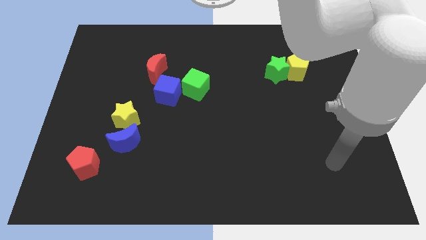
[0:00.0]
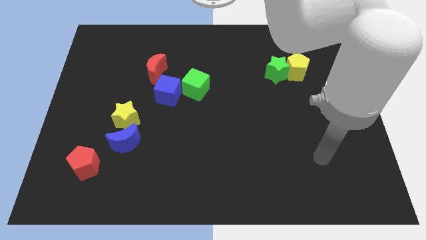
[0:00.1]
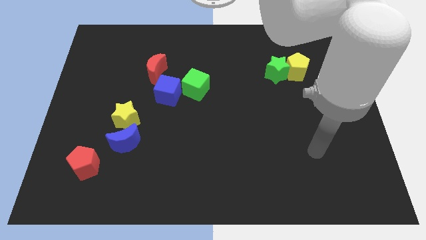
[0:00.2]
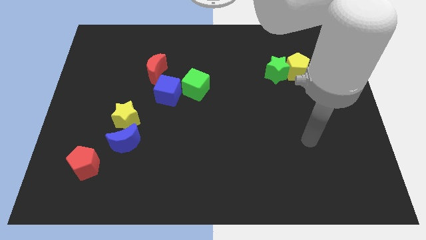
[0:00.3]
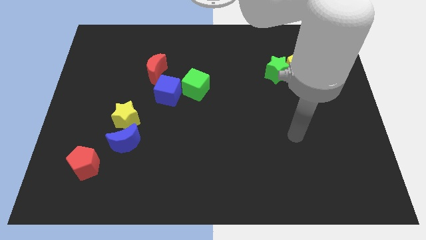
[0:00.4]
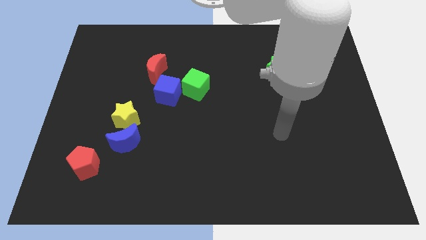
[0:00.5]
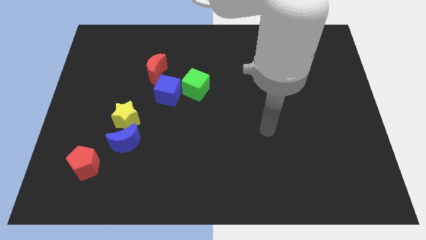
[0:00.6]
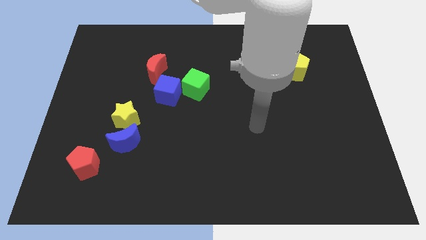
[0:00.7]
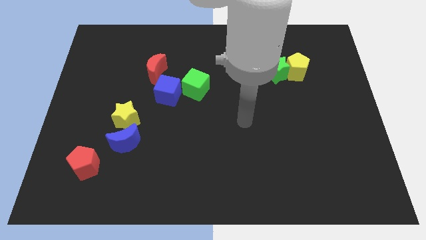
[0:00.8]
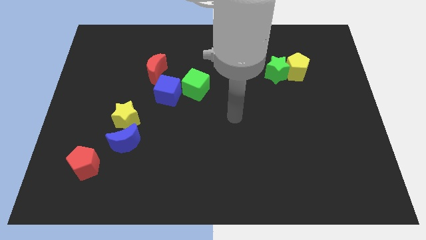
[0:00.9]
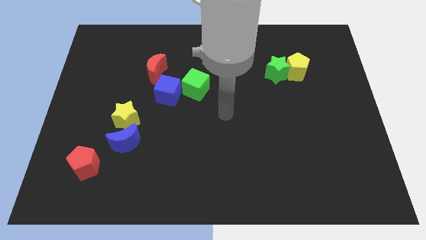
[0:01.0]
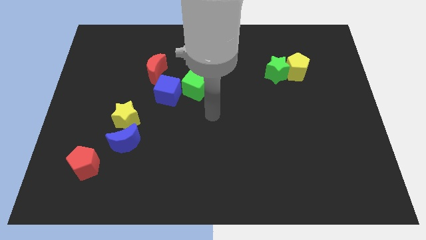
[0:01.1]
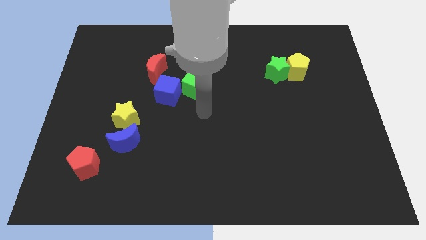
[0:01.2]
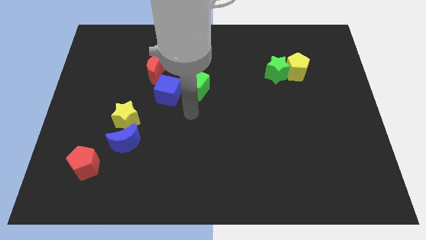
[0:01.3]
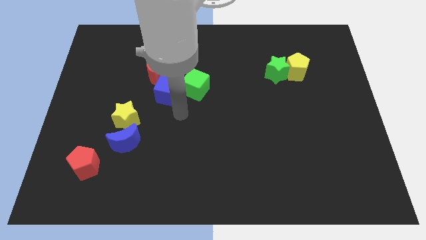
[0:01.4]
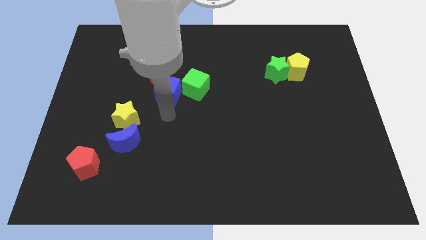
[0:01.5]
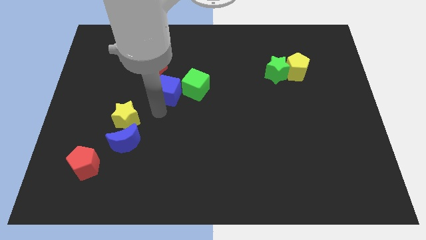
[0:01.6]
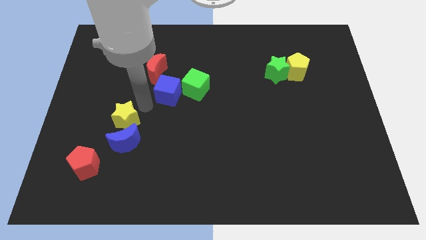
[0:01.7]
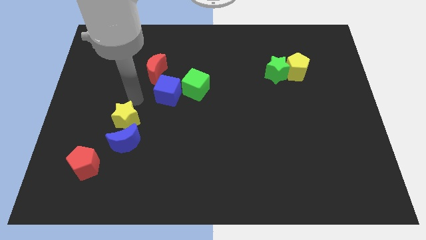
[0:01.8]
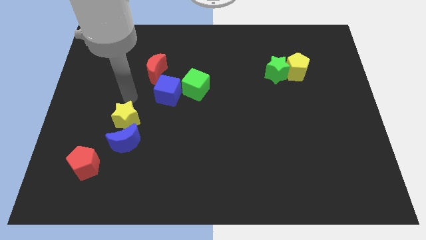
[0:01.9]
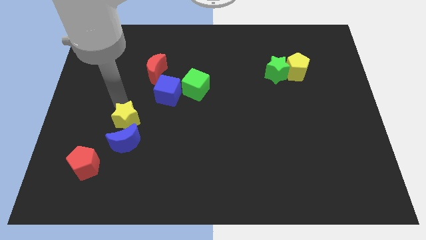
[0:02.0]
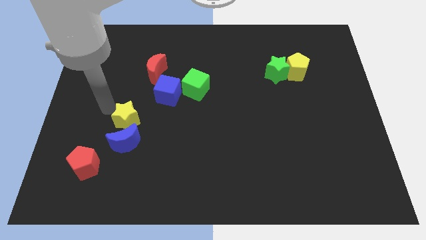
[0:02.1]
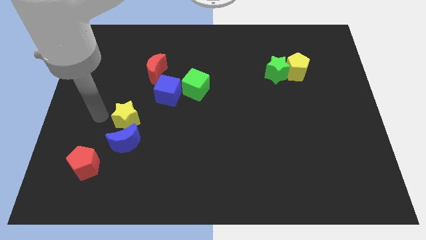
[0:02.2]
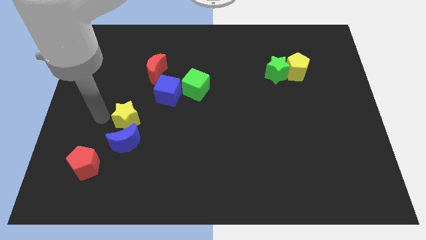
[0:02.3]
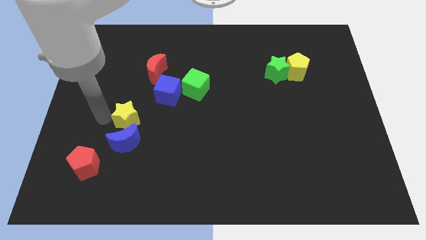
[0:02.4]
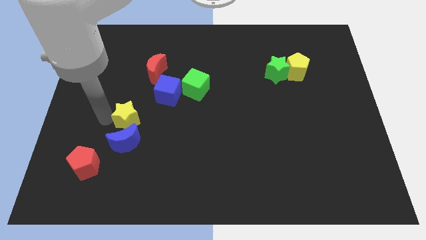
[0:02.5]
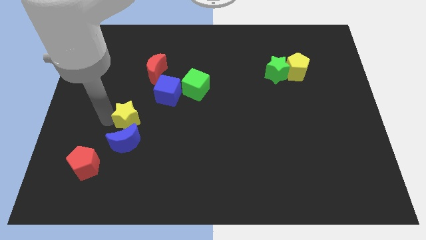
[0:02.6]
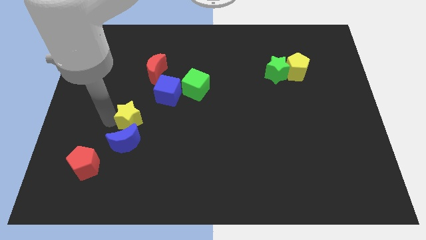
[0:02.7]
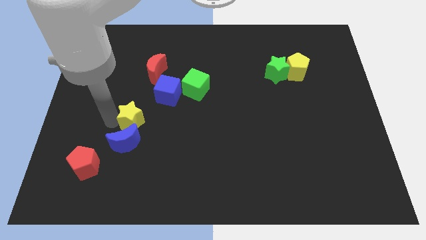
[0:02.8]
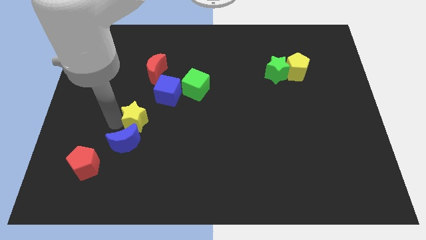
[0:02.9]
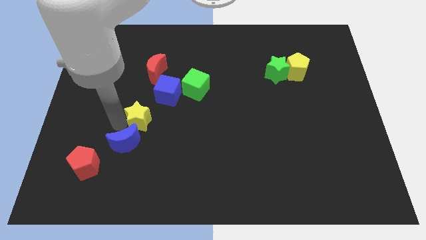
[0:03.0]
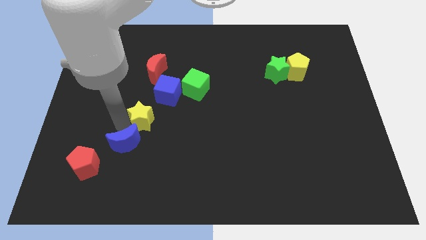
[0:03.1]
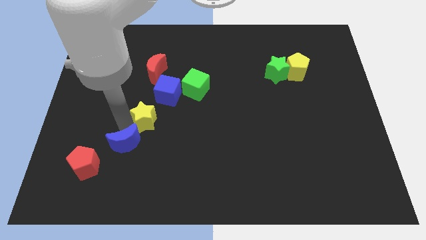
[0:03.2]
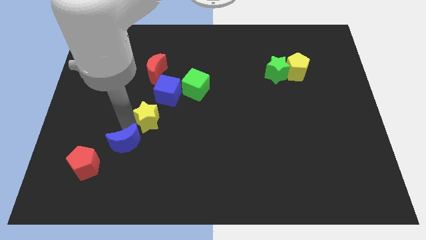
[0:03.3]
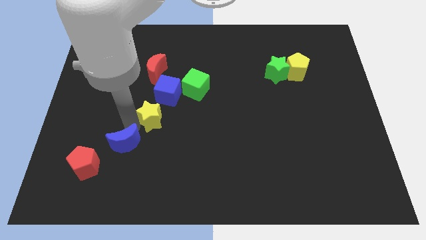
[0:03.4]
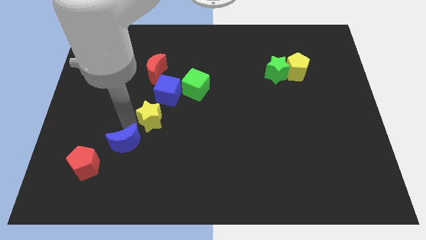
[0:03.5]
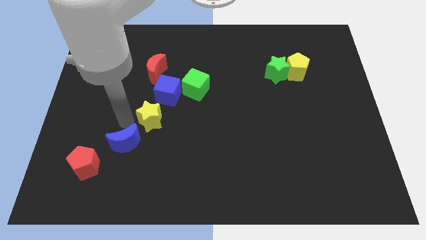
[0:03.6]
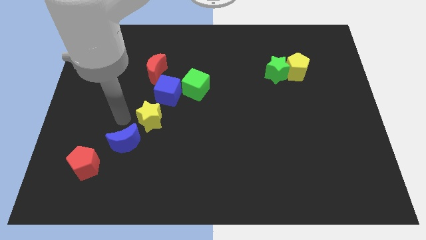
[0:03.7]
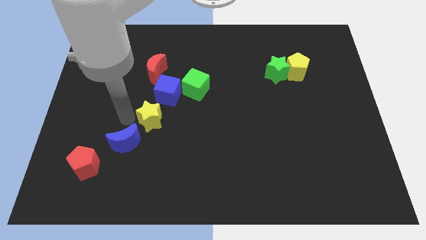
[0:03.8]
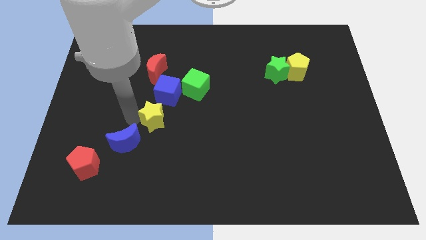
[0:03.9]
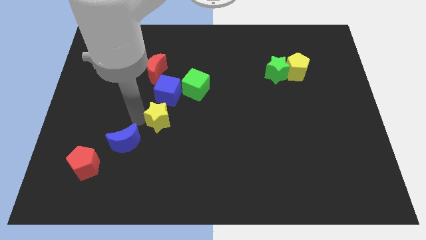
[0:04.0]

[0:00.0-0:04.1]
push the yellow star a bit to the right

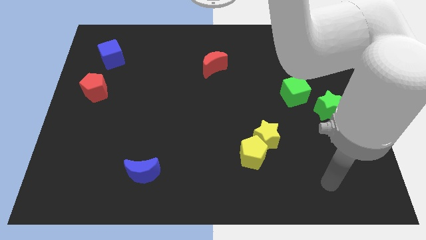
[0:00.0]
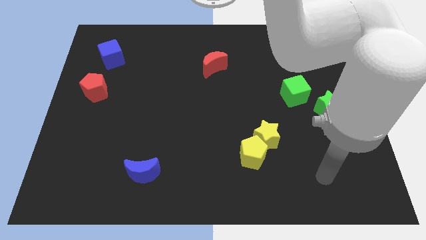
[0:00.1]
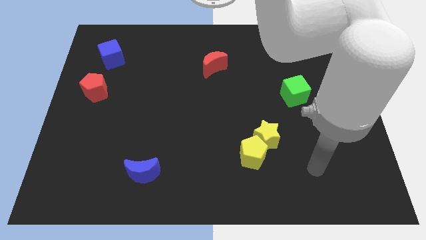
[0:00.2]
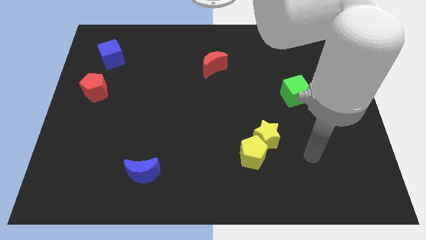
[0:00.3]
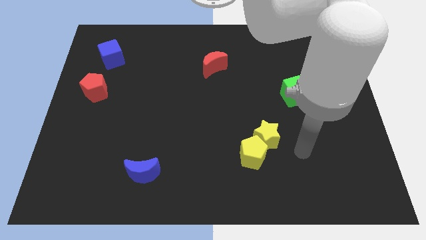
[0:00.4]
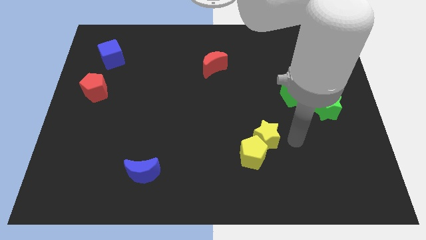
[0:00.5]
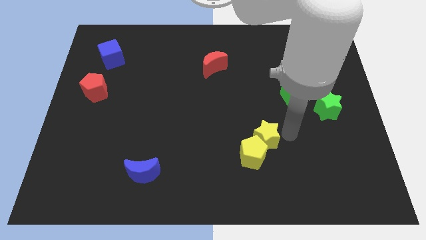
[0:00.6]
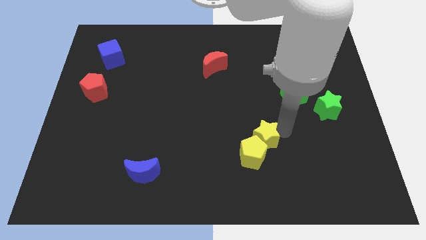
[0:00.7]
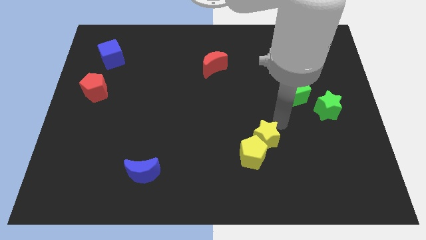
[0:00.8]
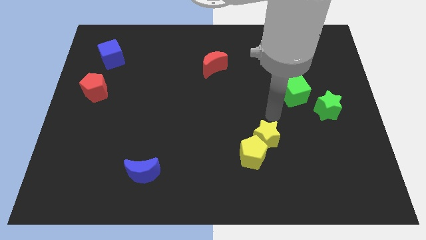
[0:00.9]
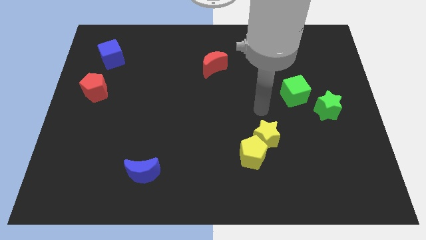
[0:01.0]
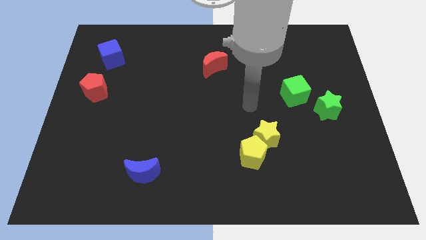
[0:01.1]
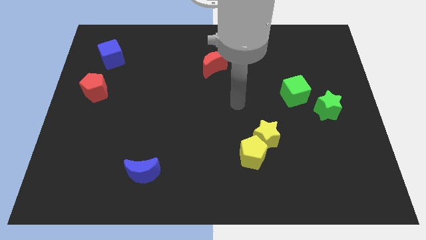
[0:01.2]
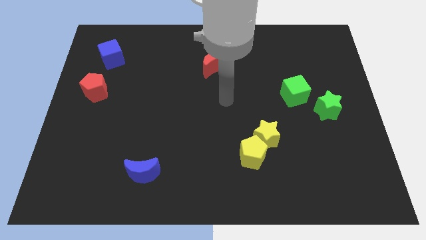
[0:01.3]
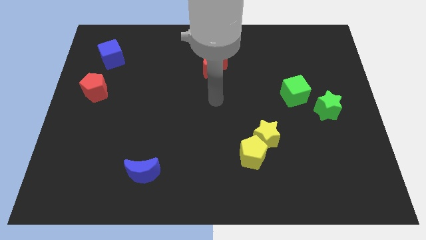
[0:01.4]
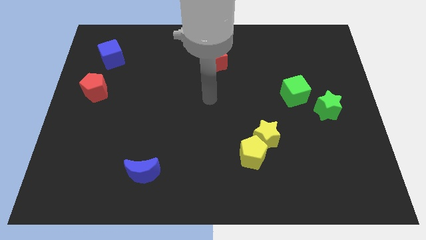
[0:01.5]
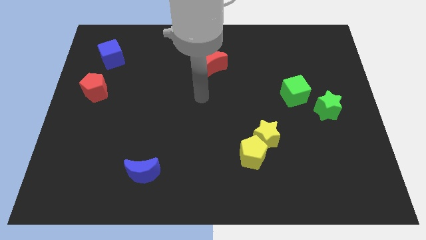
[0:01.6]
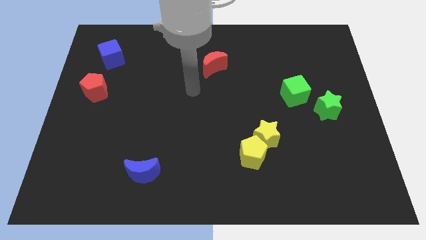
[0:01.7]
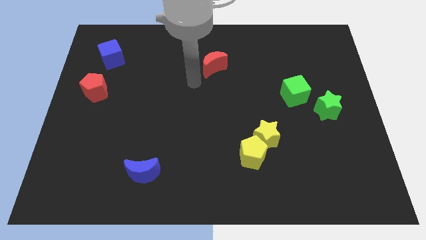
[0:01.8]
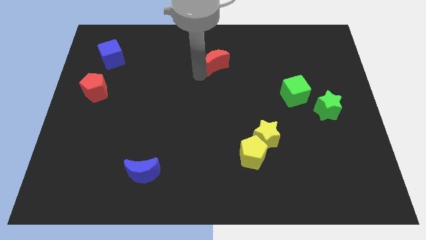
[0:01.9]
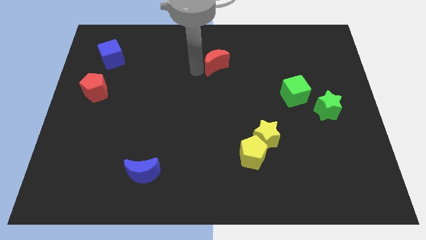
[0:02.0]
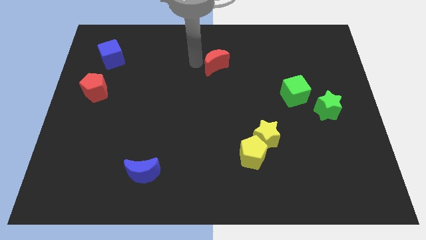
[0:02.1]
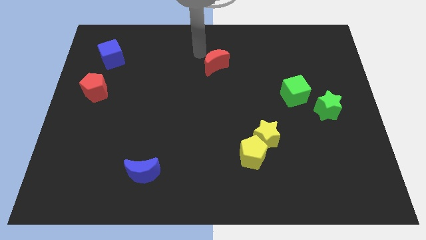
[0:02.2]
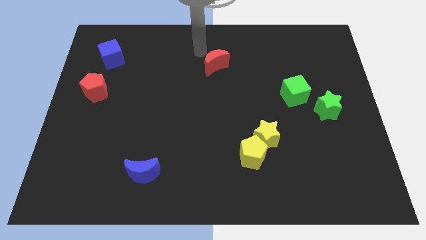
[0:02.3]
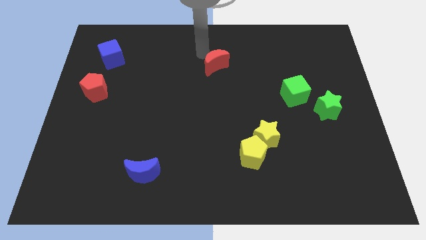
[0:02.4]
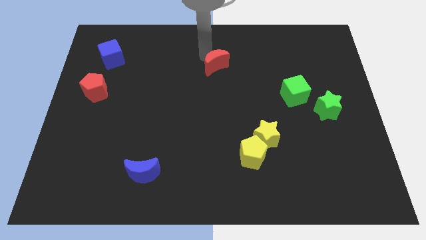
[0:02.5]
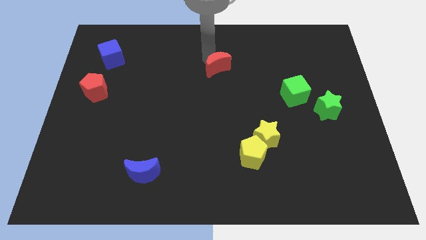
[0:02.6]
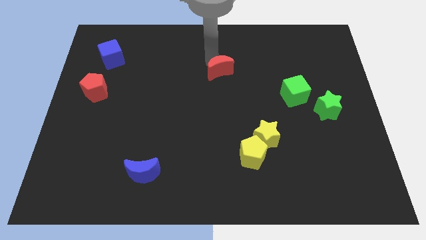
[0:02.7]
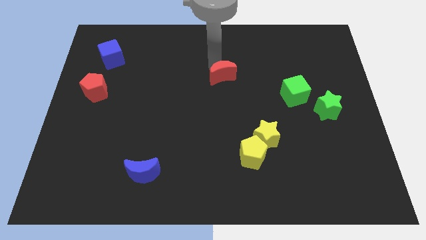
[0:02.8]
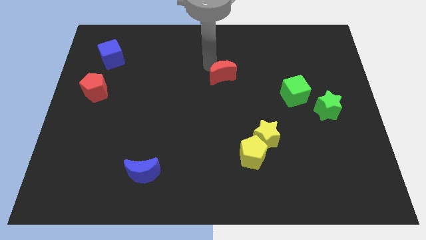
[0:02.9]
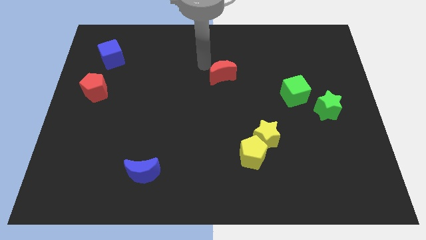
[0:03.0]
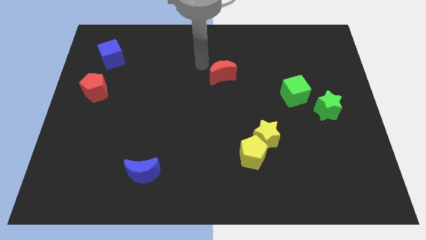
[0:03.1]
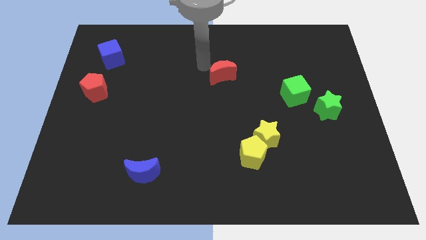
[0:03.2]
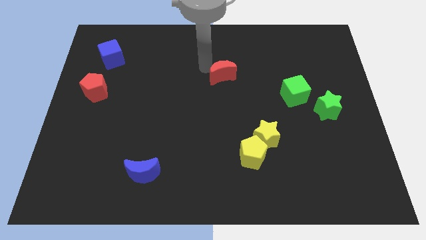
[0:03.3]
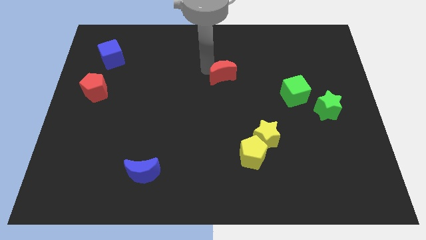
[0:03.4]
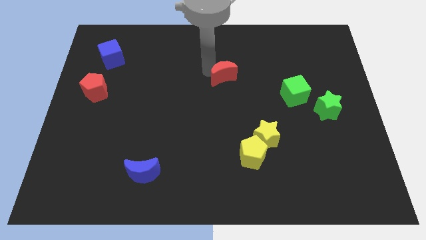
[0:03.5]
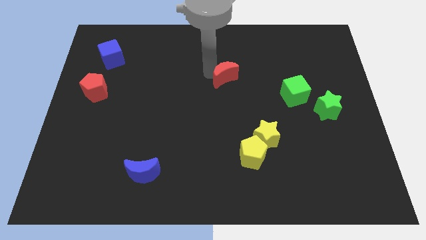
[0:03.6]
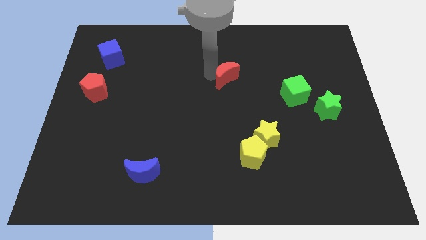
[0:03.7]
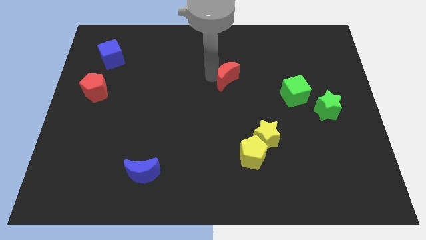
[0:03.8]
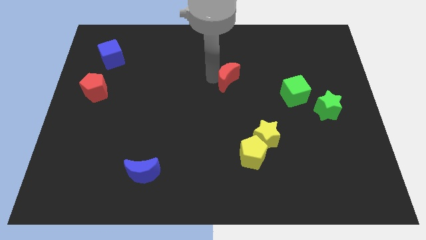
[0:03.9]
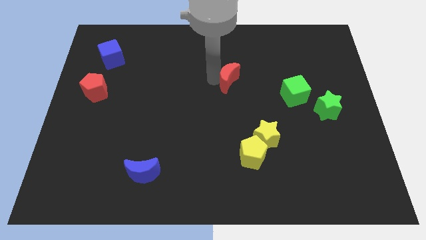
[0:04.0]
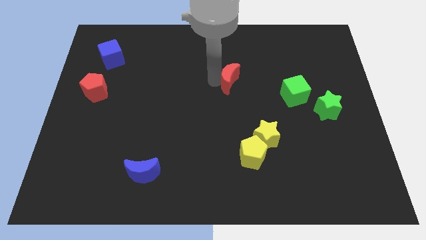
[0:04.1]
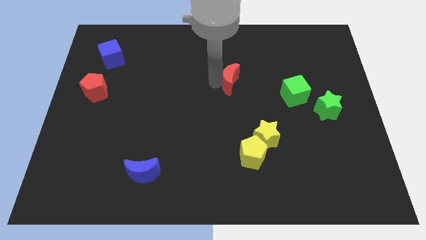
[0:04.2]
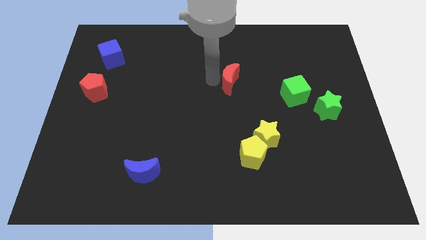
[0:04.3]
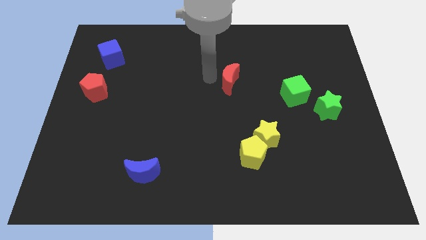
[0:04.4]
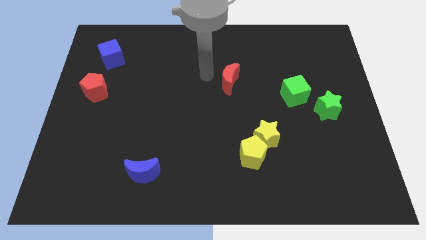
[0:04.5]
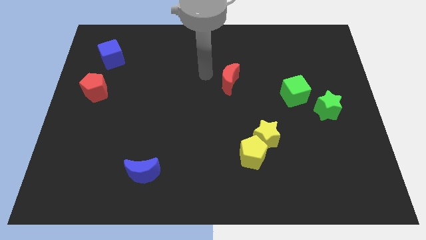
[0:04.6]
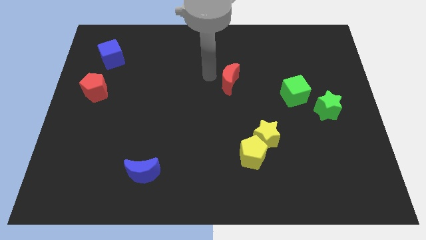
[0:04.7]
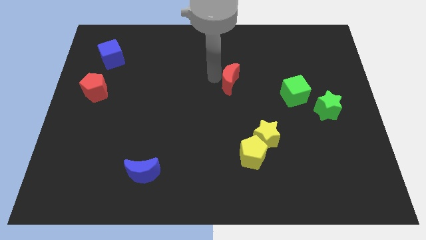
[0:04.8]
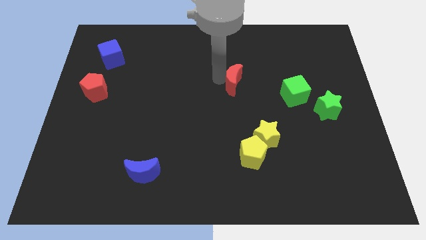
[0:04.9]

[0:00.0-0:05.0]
move the red moon diagonally down and to the right a little bit
